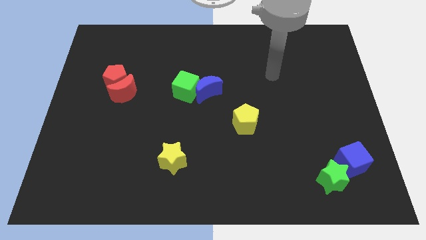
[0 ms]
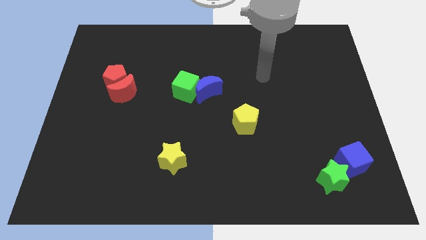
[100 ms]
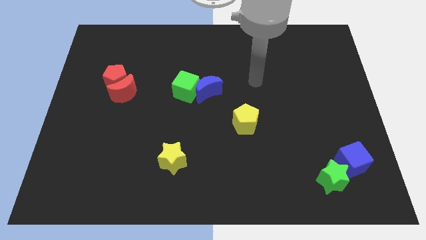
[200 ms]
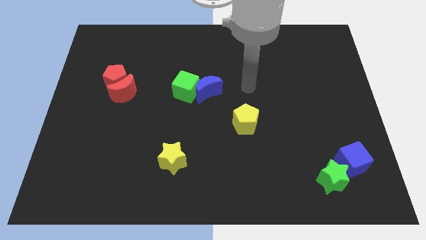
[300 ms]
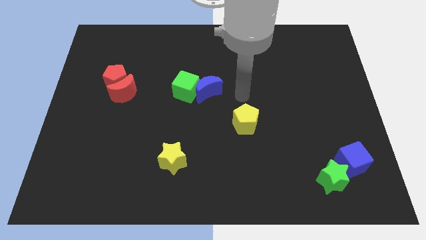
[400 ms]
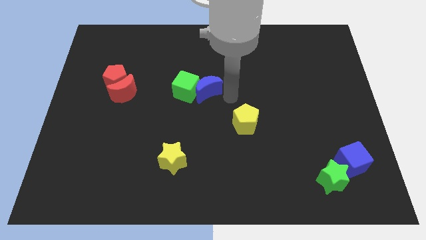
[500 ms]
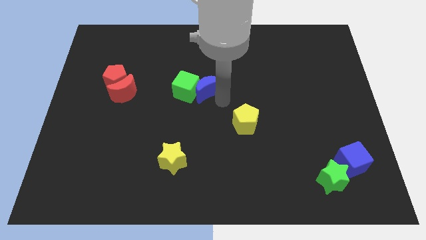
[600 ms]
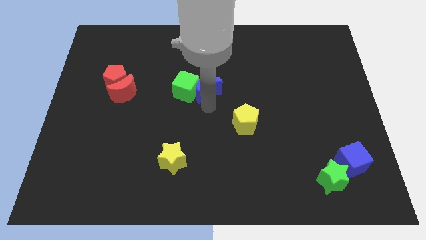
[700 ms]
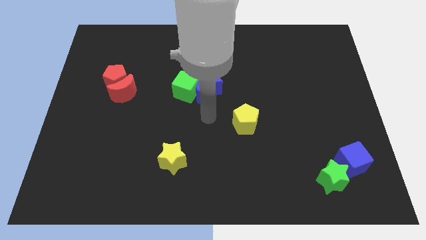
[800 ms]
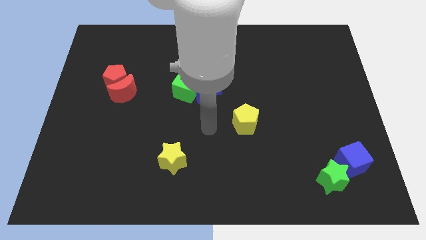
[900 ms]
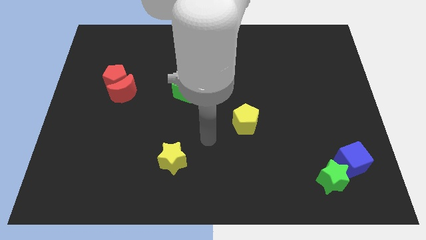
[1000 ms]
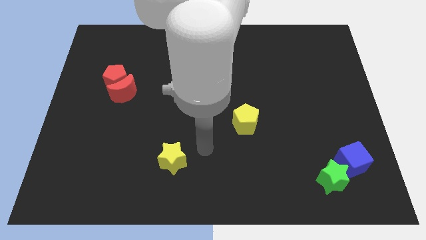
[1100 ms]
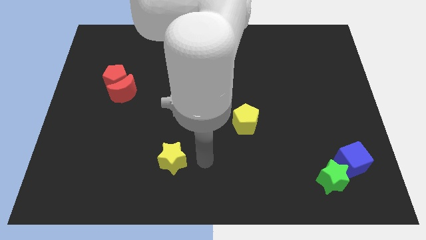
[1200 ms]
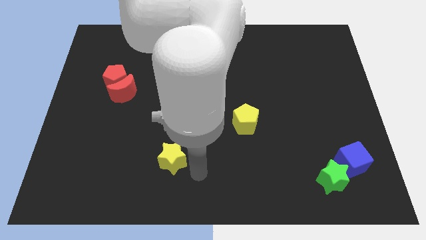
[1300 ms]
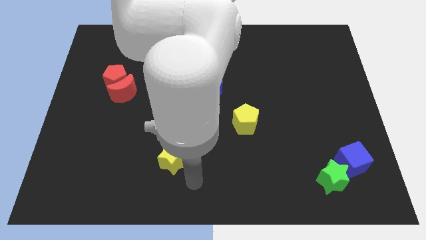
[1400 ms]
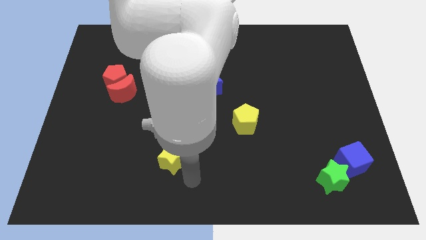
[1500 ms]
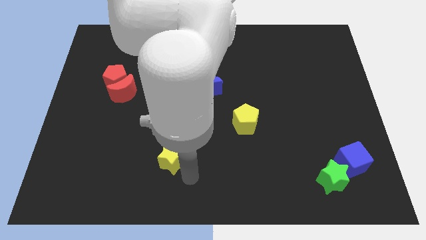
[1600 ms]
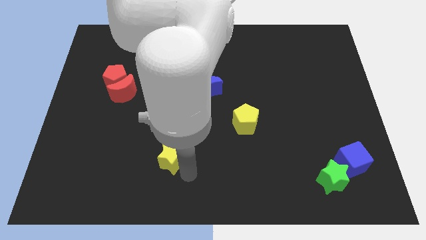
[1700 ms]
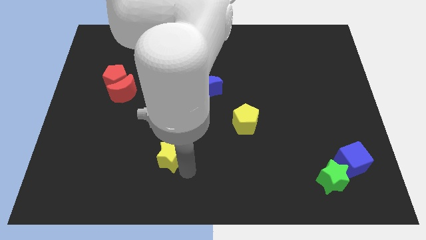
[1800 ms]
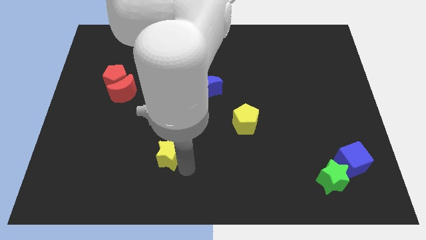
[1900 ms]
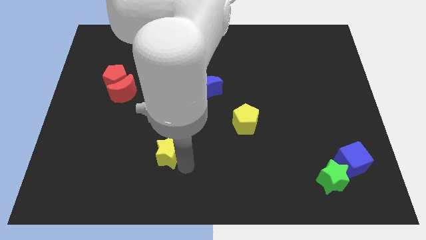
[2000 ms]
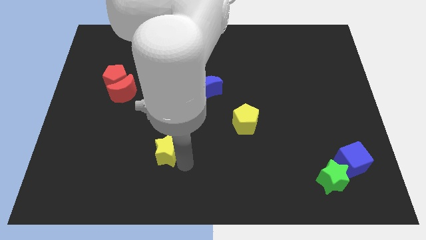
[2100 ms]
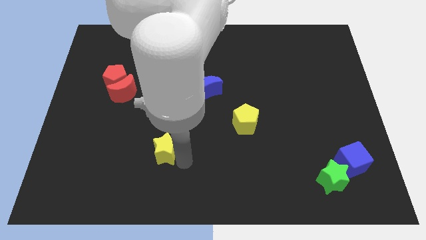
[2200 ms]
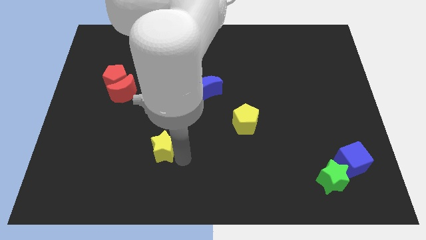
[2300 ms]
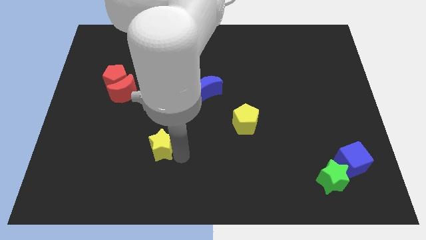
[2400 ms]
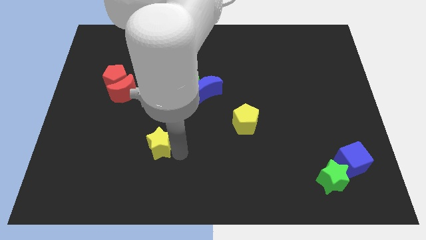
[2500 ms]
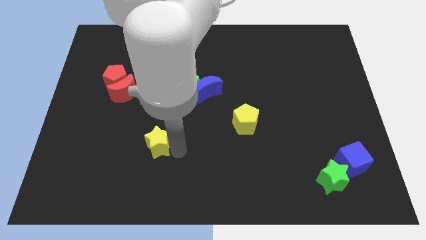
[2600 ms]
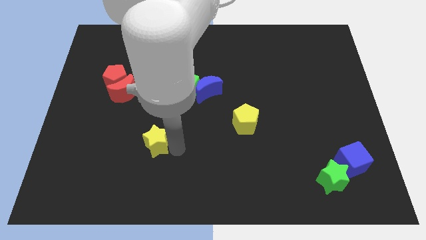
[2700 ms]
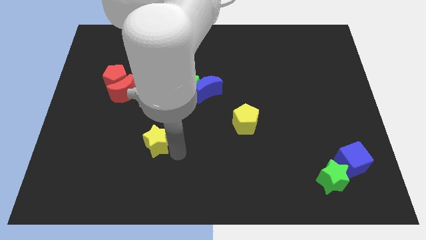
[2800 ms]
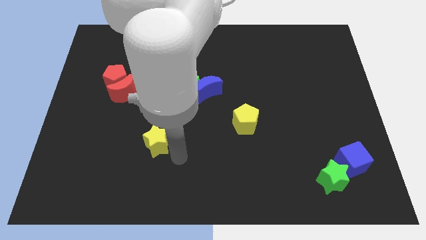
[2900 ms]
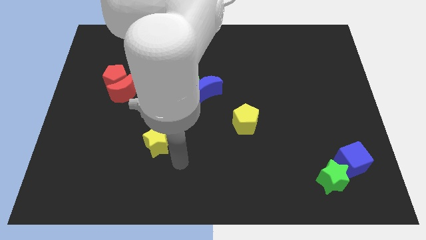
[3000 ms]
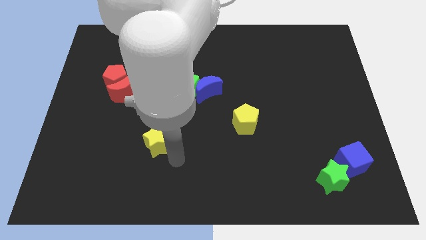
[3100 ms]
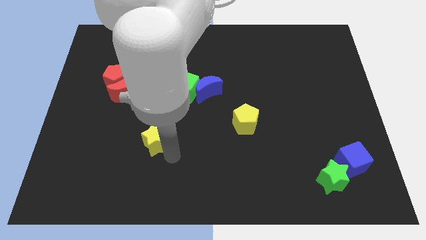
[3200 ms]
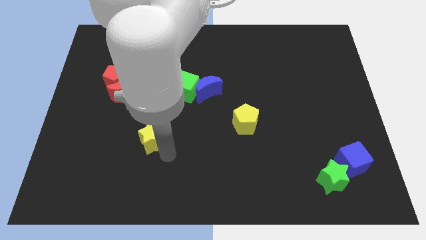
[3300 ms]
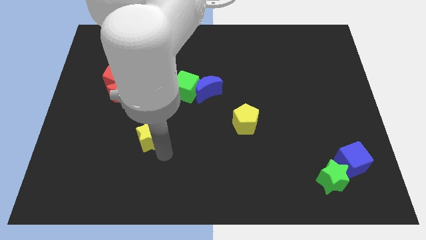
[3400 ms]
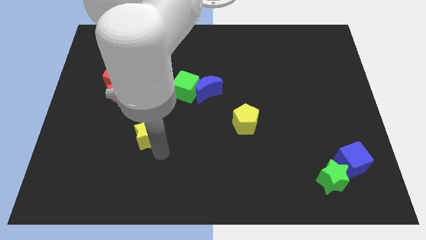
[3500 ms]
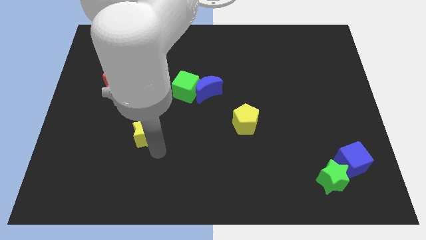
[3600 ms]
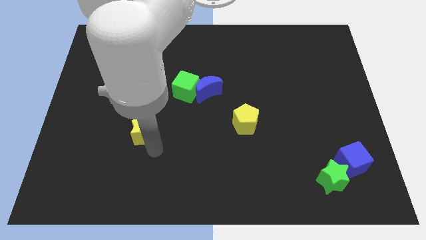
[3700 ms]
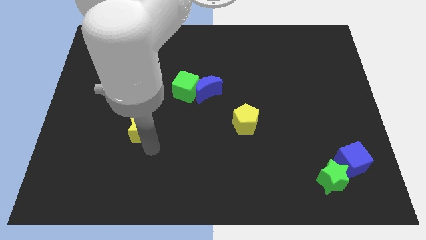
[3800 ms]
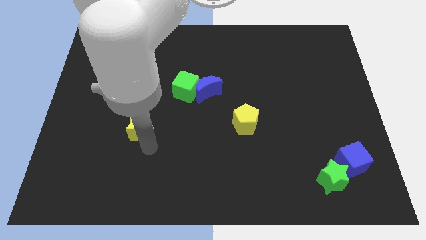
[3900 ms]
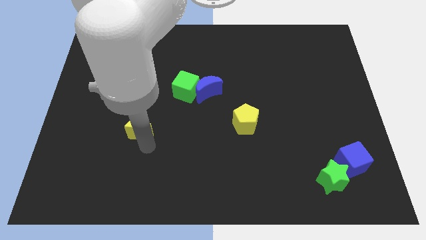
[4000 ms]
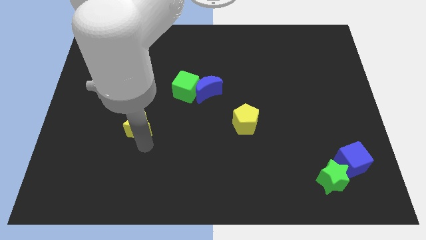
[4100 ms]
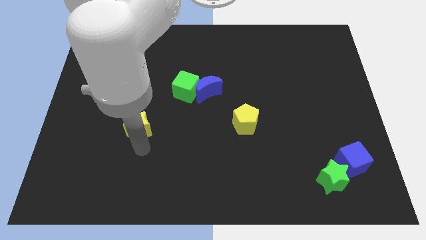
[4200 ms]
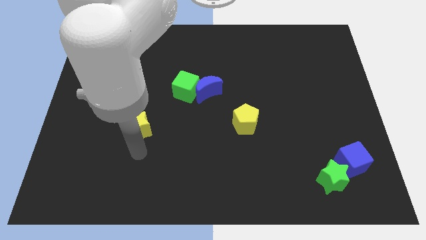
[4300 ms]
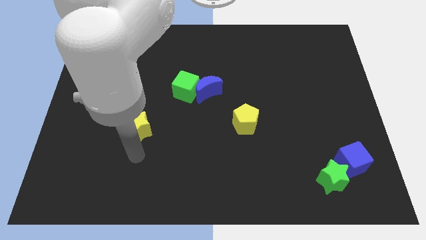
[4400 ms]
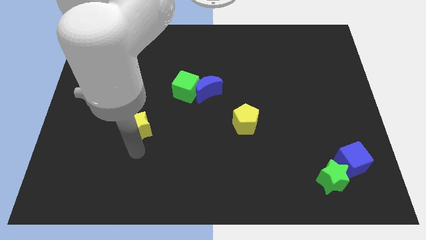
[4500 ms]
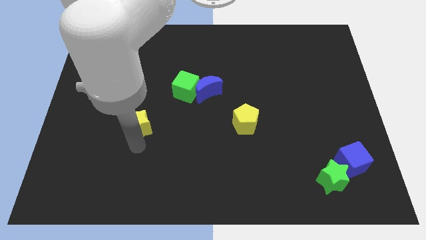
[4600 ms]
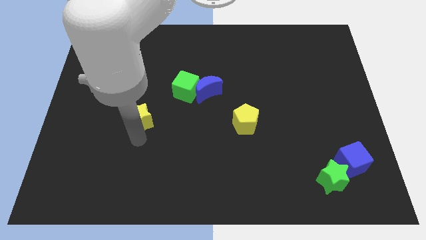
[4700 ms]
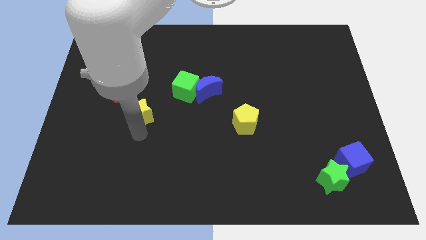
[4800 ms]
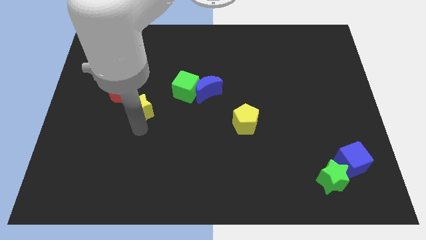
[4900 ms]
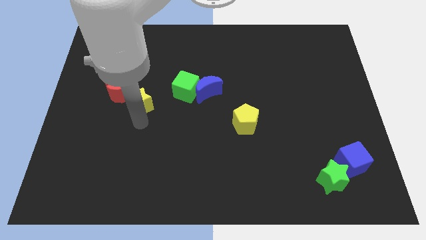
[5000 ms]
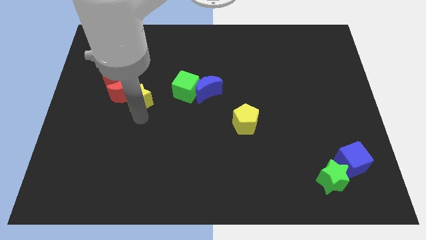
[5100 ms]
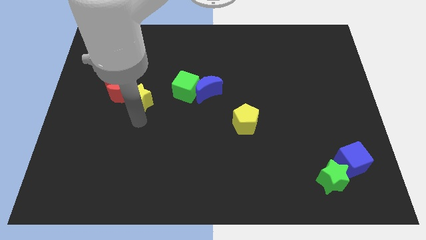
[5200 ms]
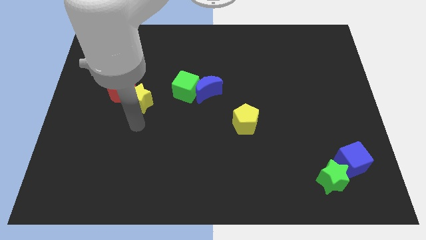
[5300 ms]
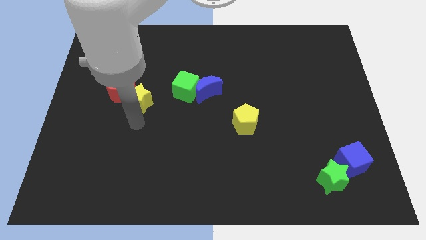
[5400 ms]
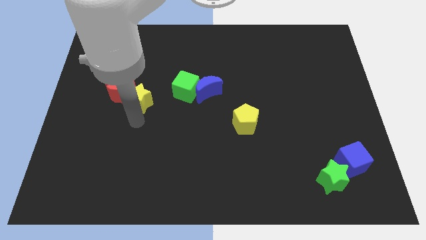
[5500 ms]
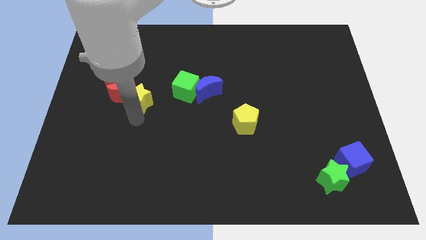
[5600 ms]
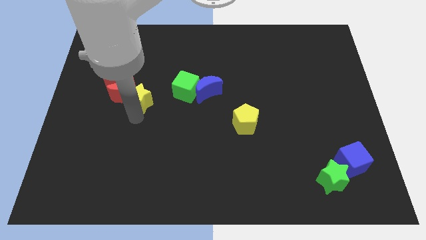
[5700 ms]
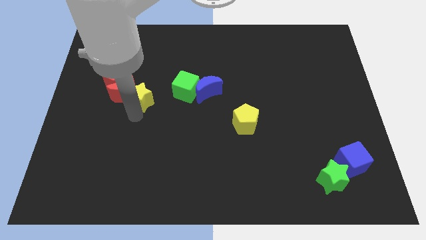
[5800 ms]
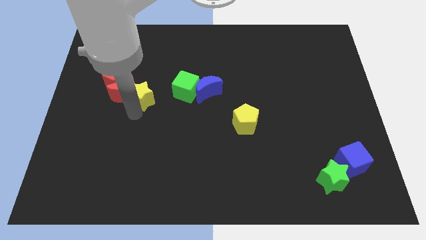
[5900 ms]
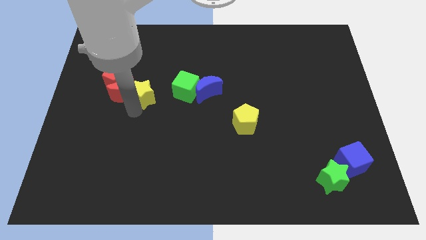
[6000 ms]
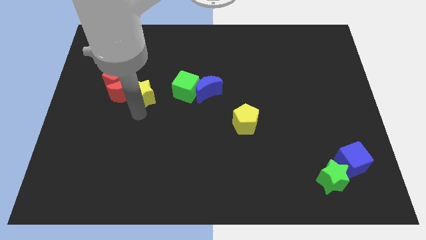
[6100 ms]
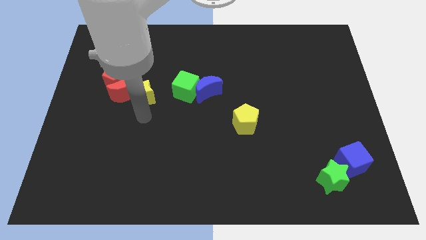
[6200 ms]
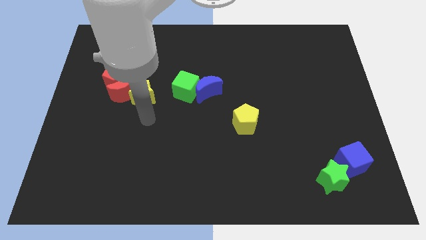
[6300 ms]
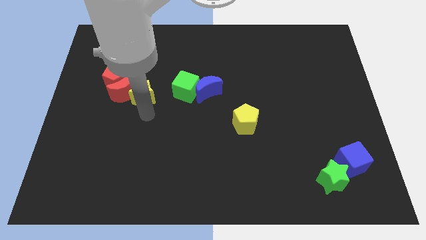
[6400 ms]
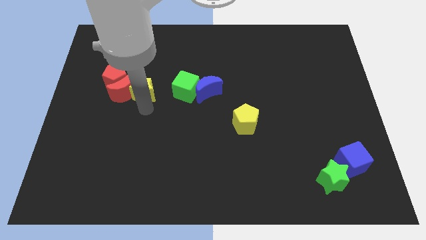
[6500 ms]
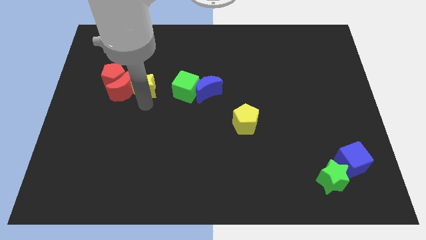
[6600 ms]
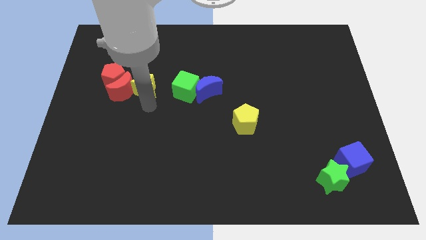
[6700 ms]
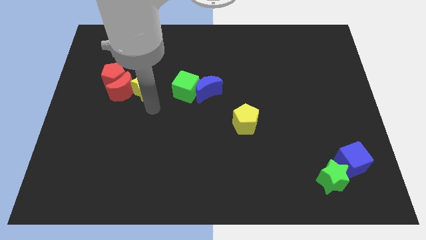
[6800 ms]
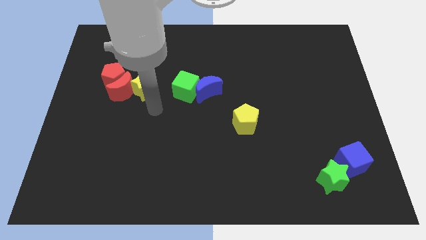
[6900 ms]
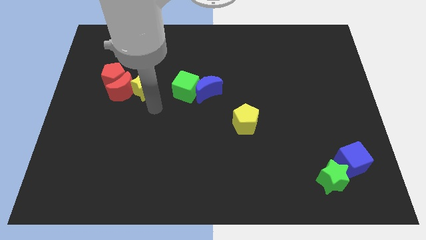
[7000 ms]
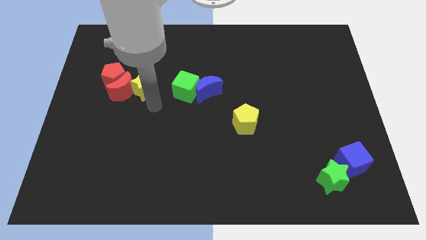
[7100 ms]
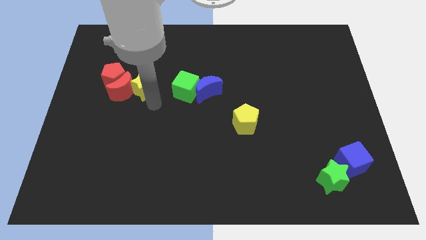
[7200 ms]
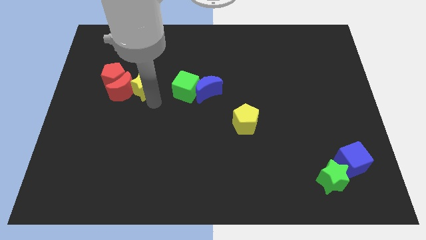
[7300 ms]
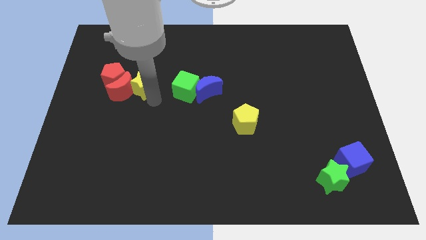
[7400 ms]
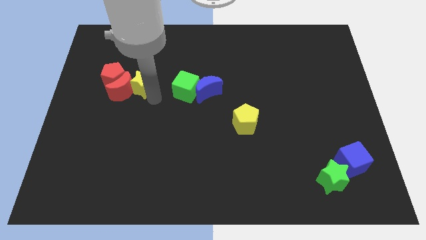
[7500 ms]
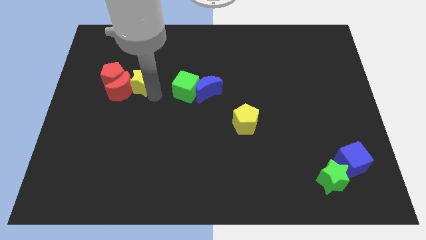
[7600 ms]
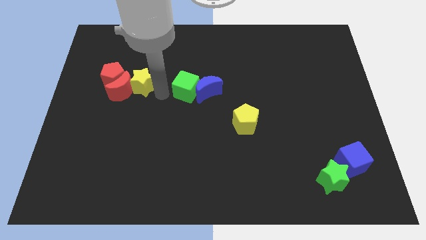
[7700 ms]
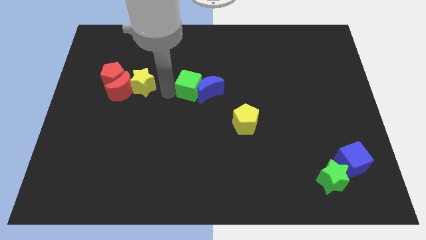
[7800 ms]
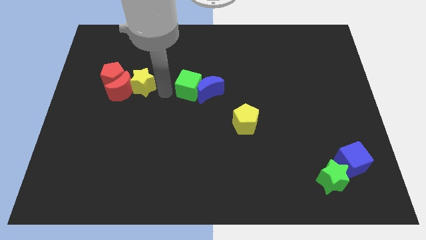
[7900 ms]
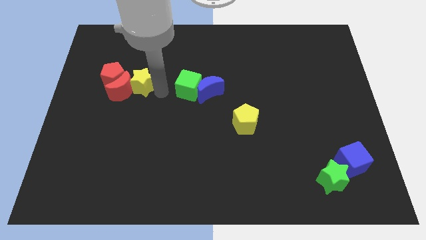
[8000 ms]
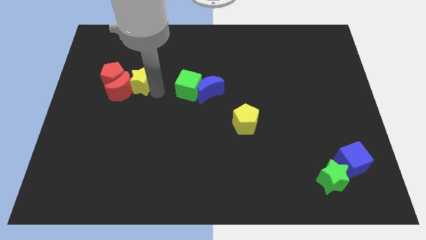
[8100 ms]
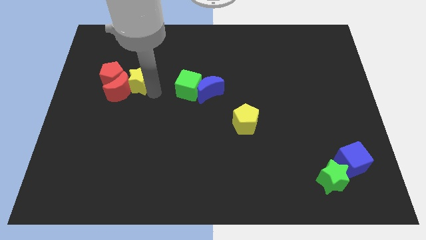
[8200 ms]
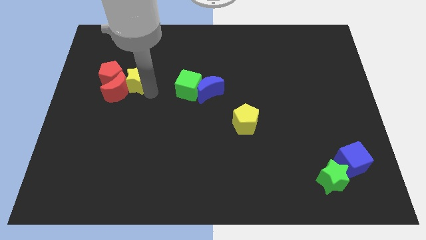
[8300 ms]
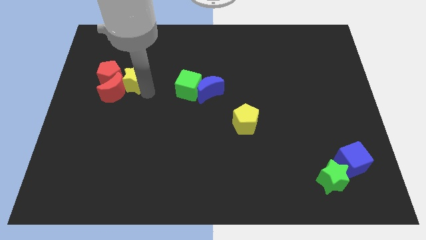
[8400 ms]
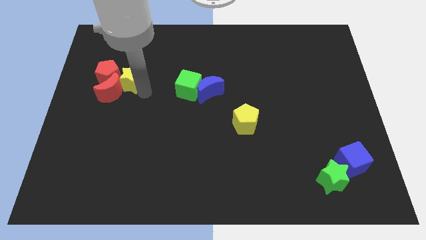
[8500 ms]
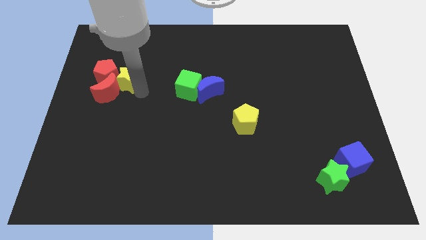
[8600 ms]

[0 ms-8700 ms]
slide the yellow star next to the red pentagon
